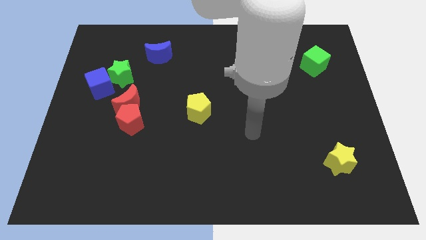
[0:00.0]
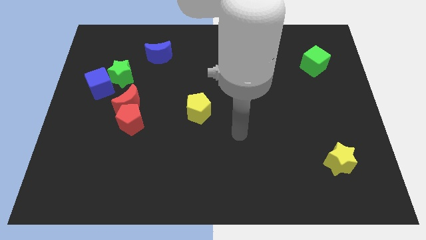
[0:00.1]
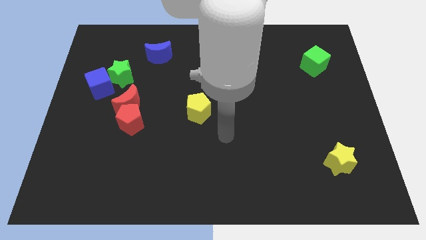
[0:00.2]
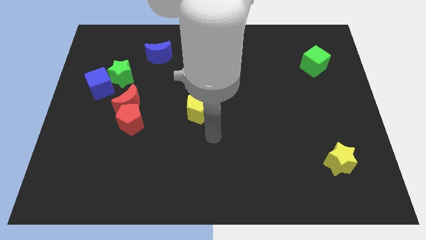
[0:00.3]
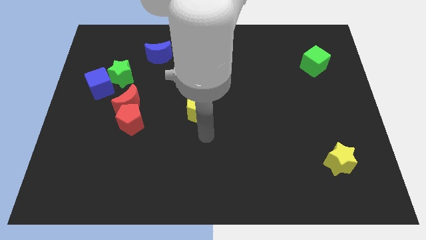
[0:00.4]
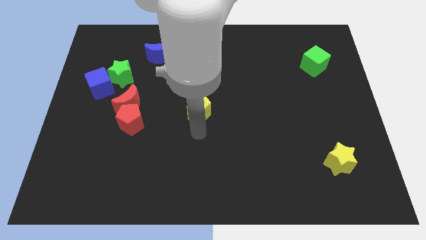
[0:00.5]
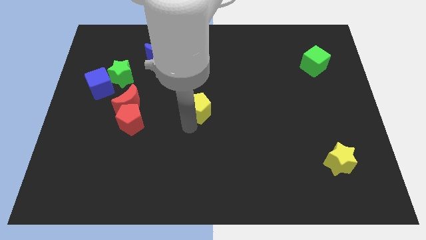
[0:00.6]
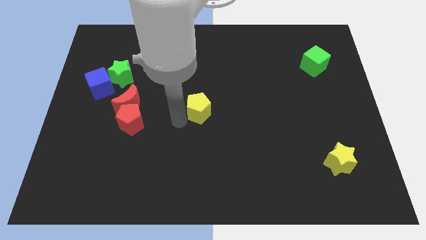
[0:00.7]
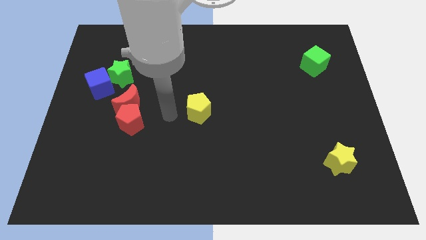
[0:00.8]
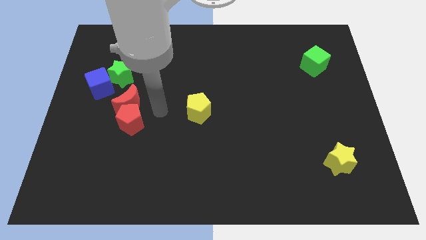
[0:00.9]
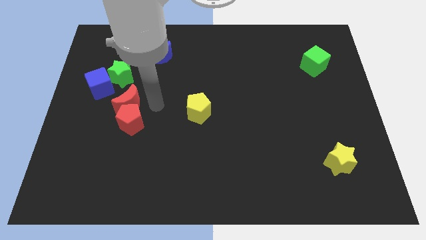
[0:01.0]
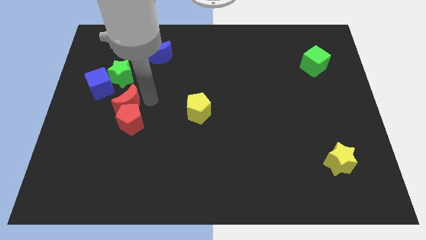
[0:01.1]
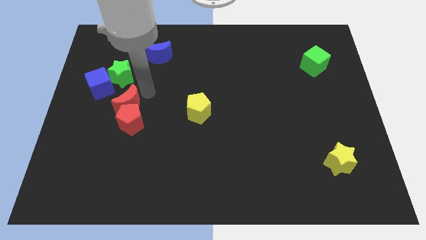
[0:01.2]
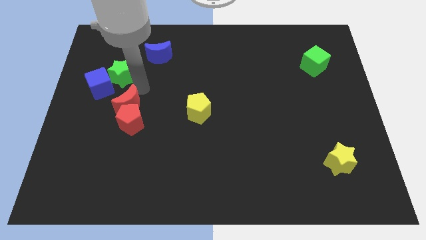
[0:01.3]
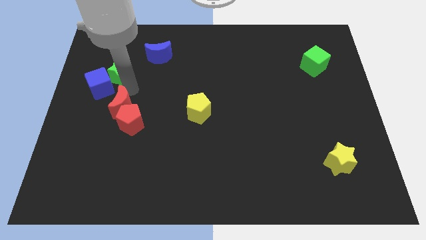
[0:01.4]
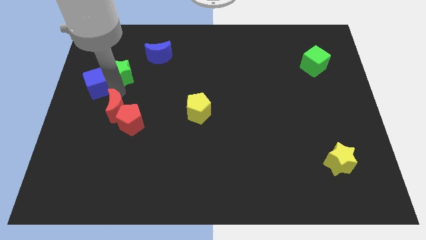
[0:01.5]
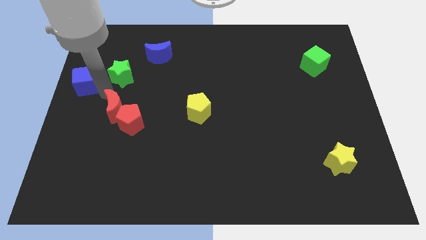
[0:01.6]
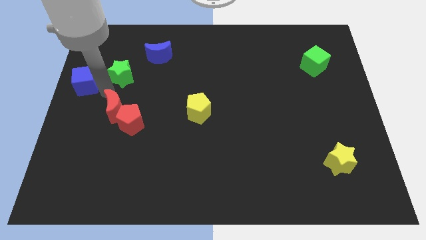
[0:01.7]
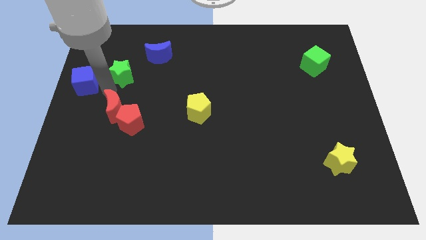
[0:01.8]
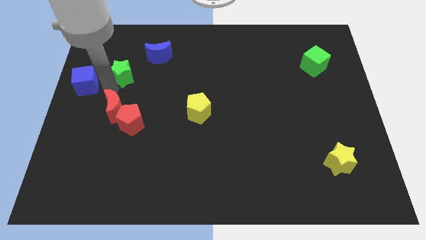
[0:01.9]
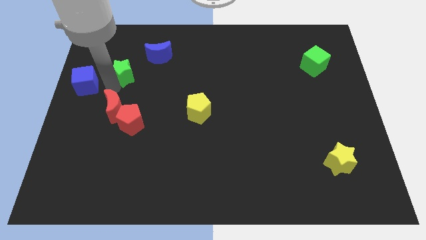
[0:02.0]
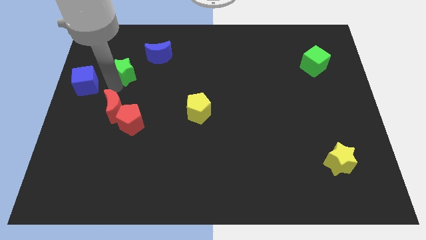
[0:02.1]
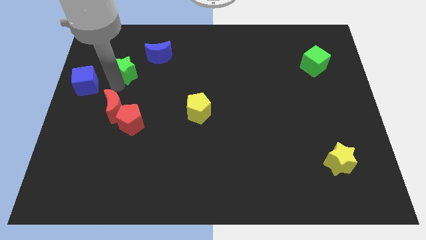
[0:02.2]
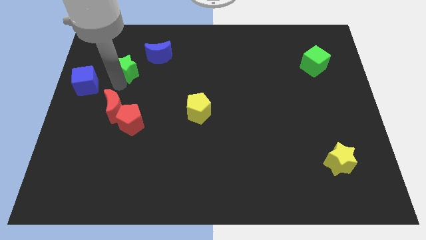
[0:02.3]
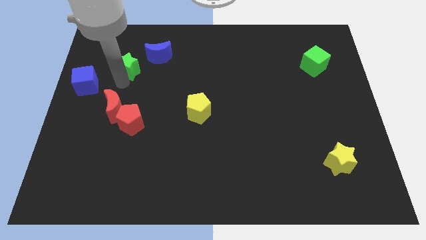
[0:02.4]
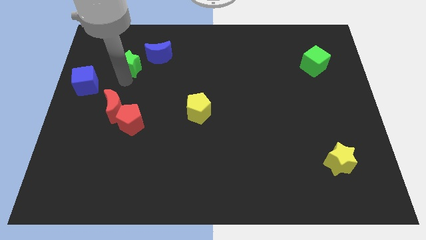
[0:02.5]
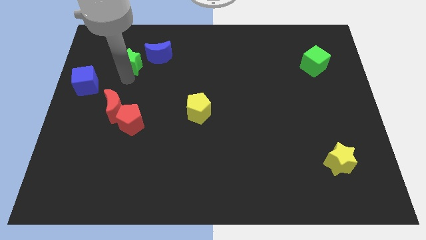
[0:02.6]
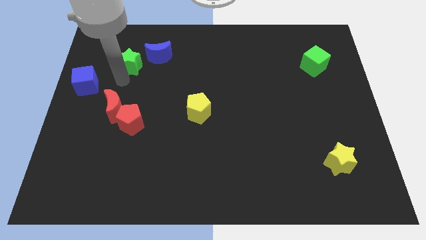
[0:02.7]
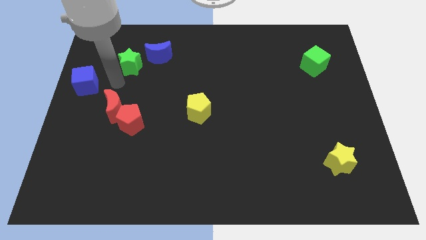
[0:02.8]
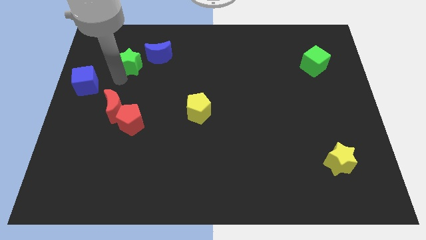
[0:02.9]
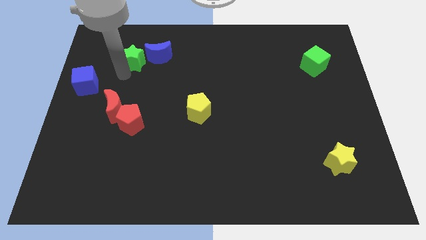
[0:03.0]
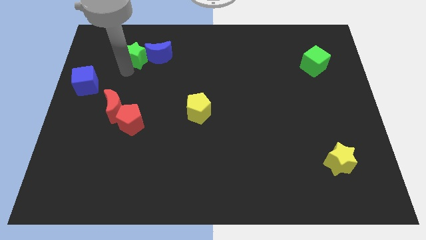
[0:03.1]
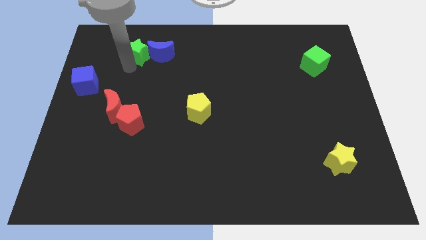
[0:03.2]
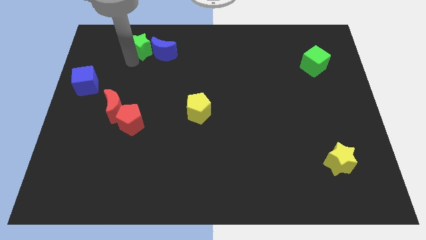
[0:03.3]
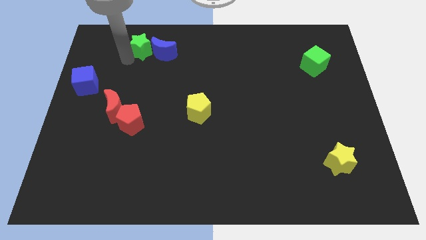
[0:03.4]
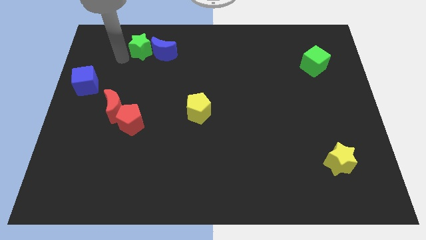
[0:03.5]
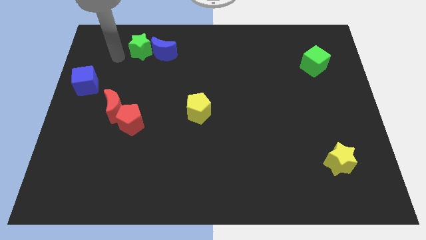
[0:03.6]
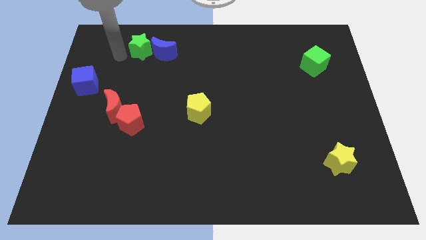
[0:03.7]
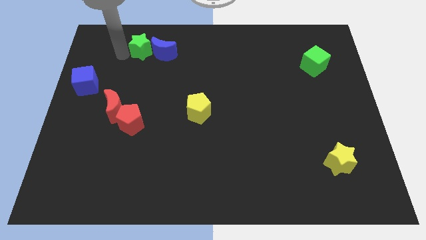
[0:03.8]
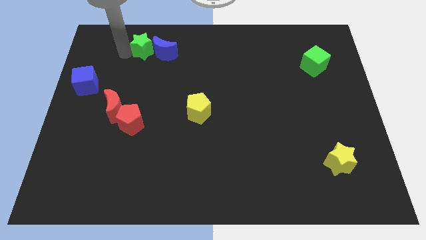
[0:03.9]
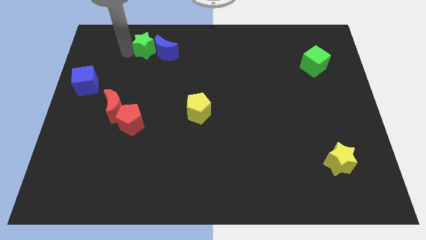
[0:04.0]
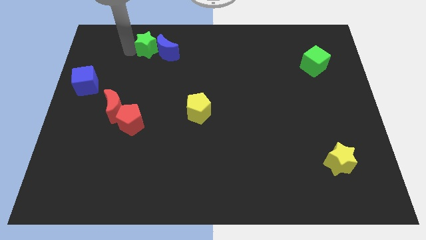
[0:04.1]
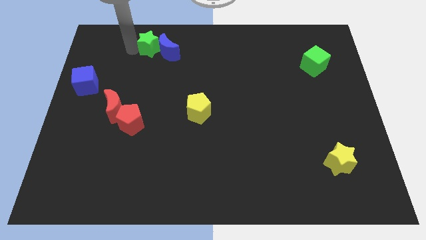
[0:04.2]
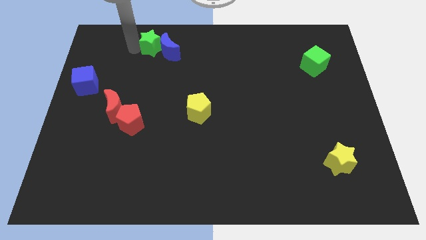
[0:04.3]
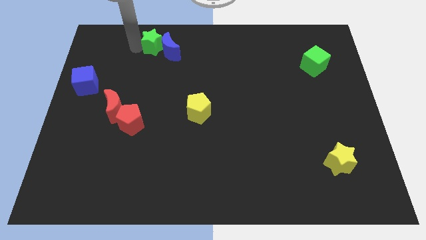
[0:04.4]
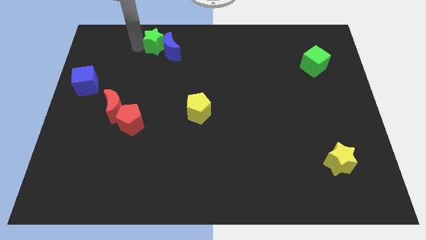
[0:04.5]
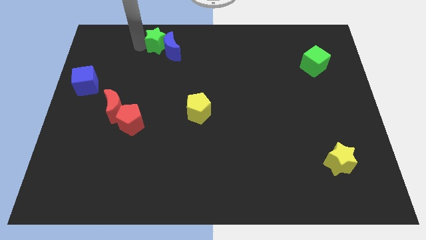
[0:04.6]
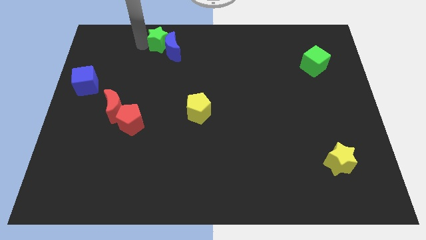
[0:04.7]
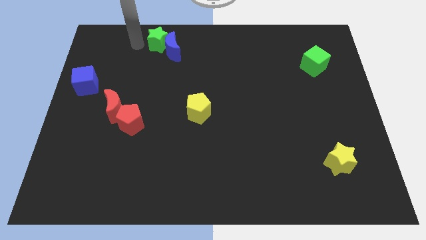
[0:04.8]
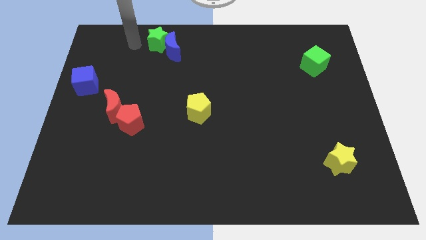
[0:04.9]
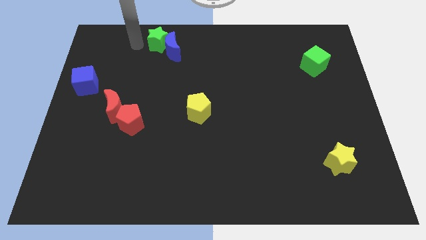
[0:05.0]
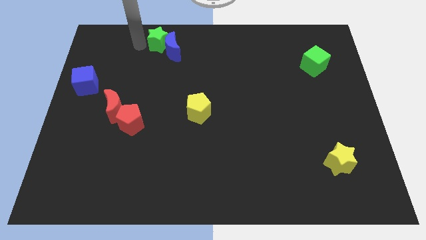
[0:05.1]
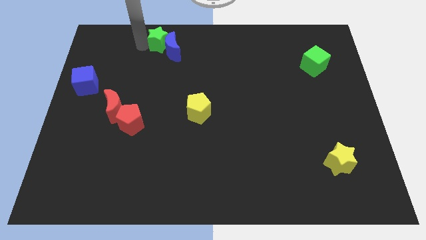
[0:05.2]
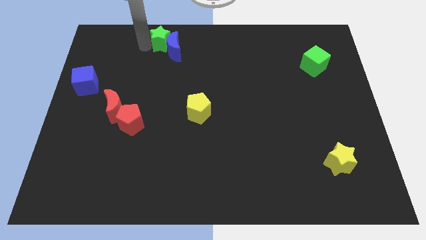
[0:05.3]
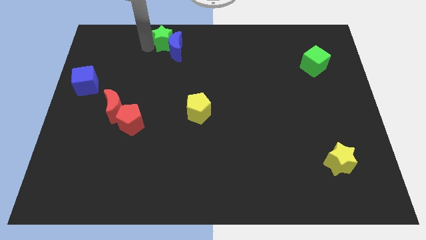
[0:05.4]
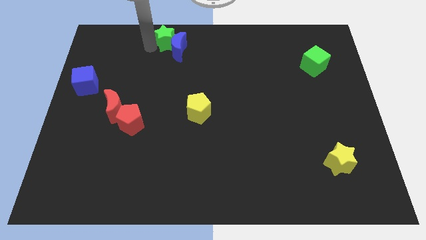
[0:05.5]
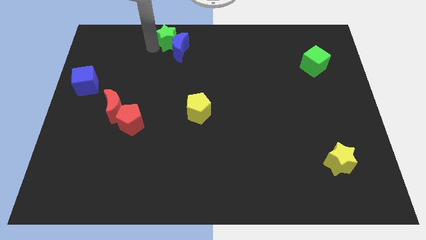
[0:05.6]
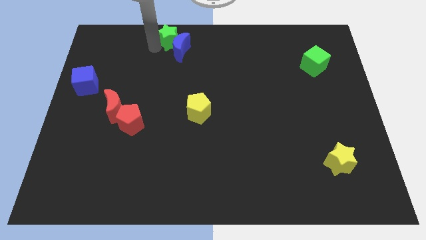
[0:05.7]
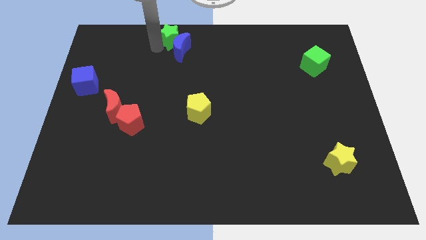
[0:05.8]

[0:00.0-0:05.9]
slide the green star to the towards your base
